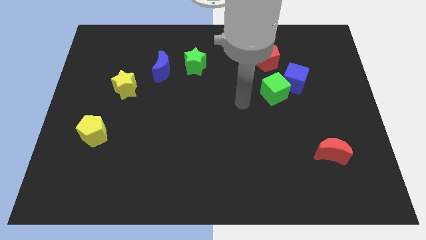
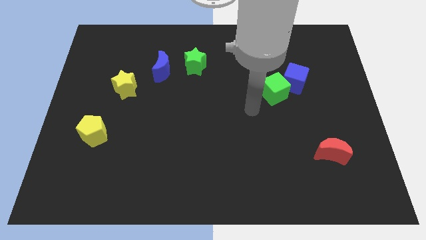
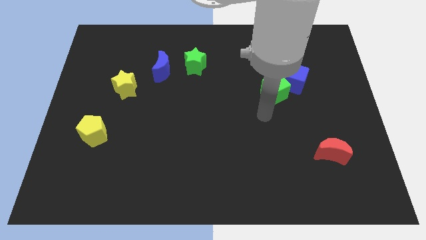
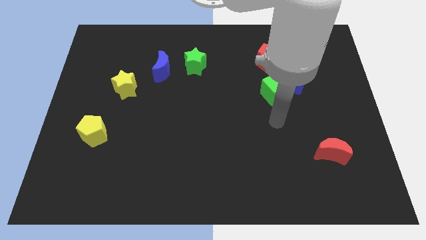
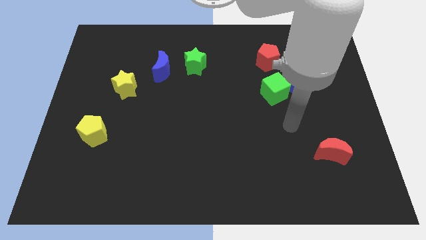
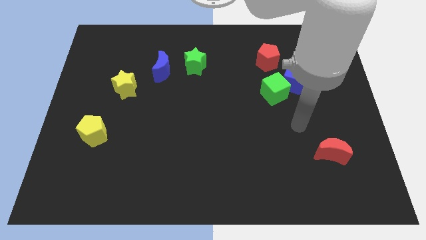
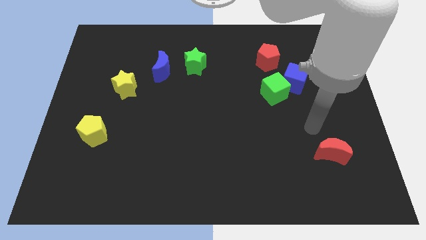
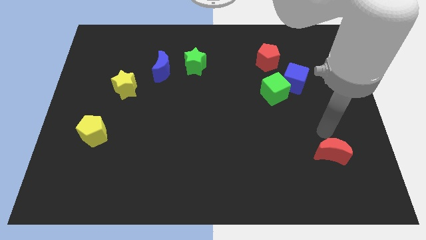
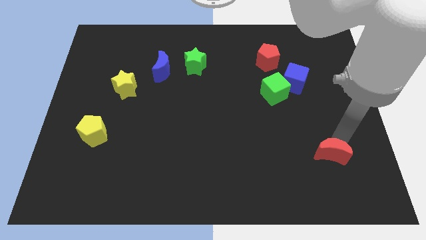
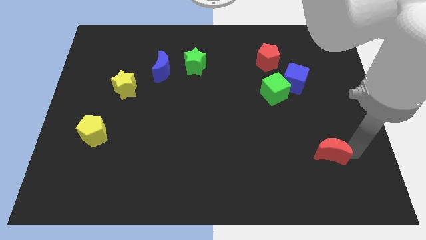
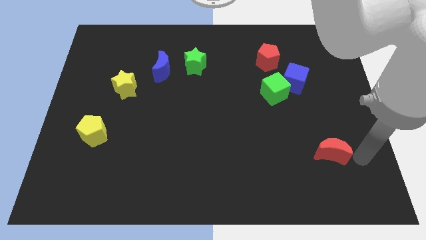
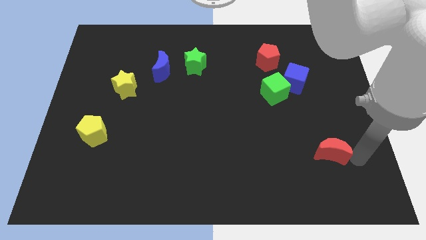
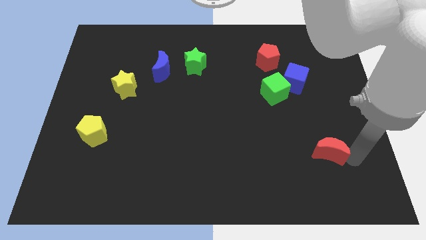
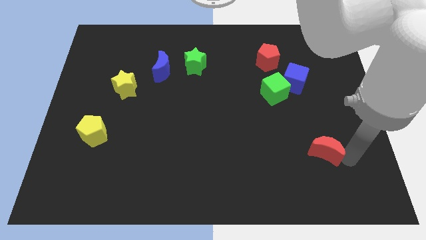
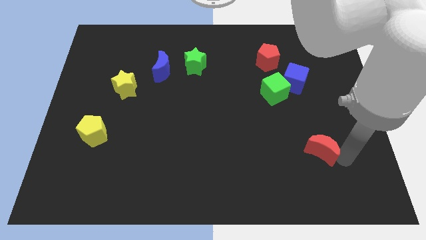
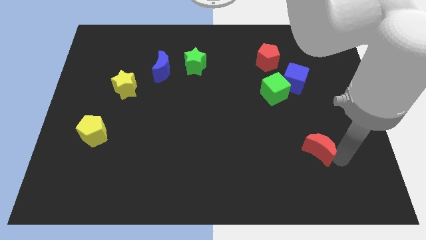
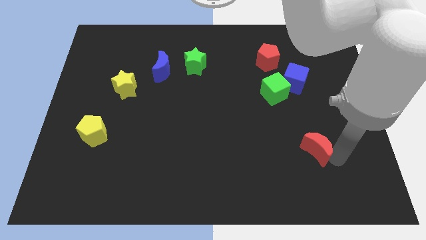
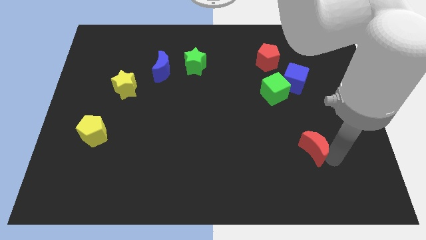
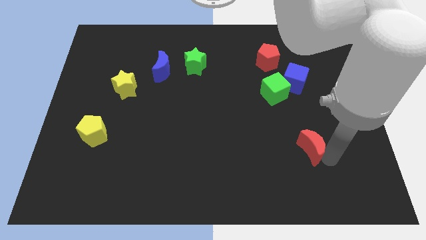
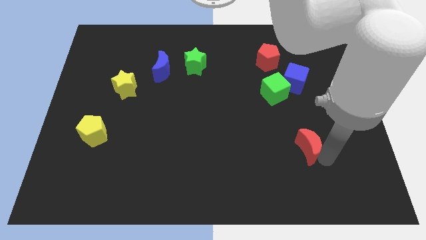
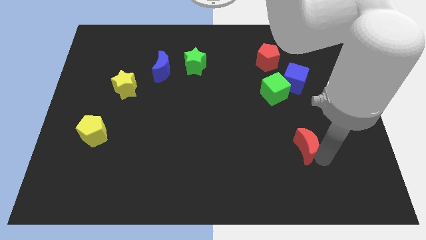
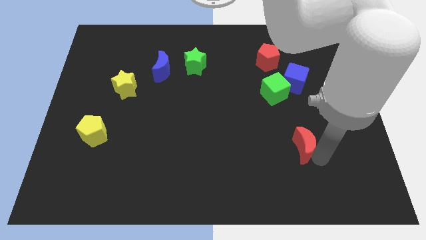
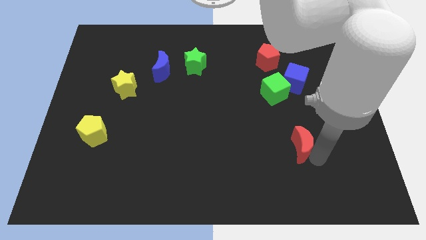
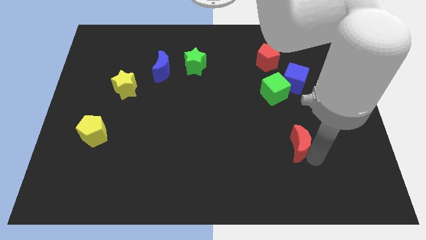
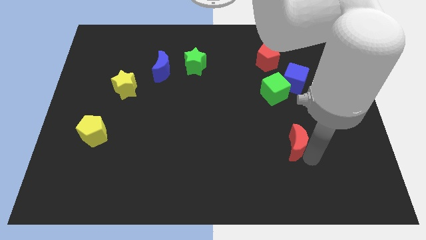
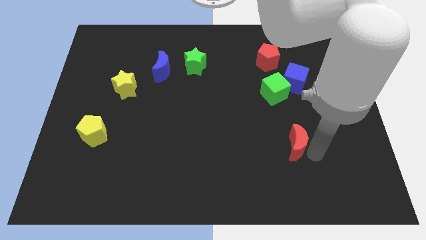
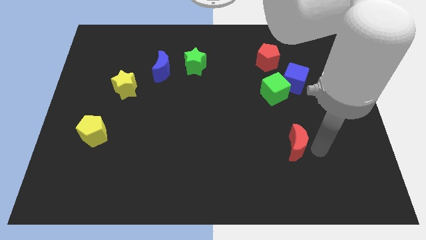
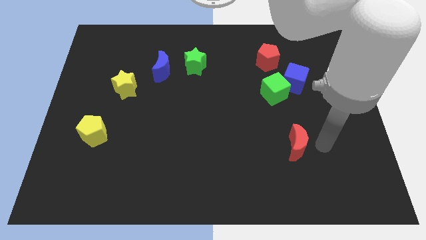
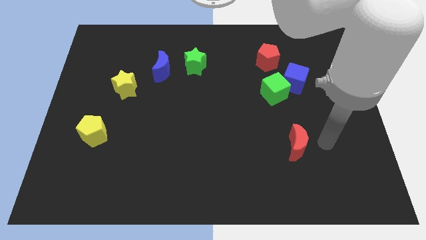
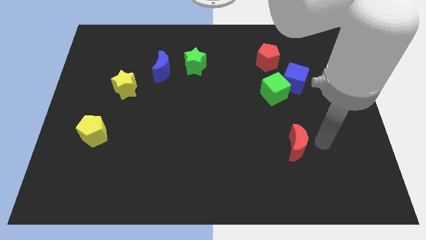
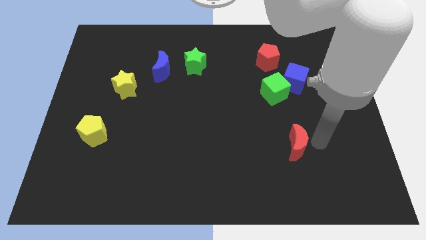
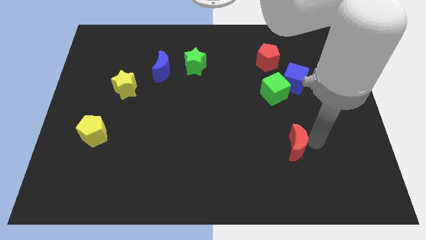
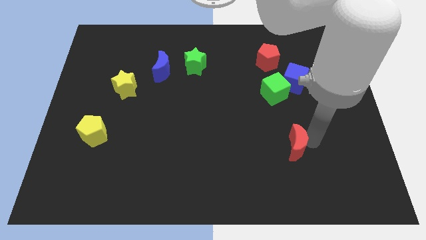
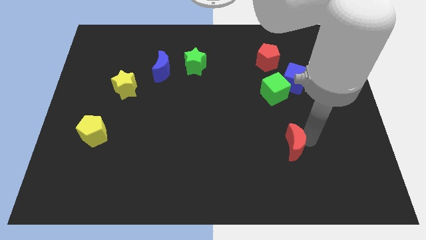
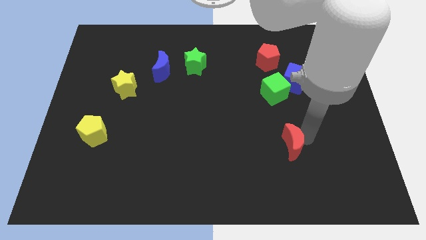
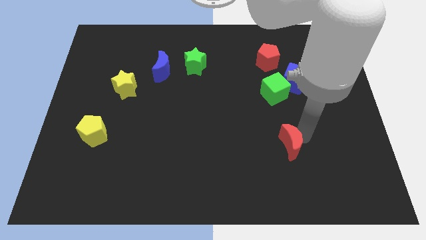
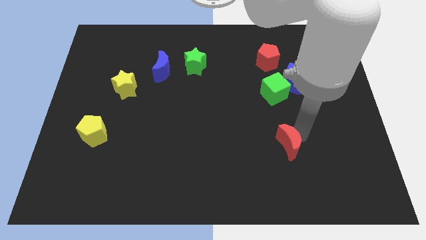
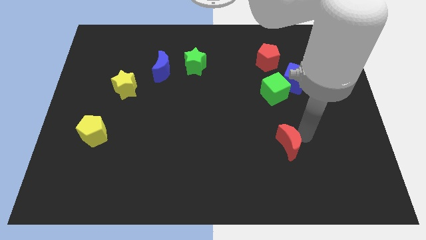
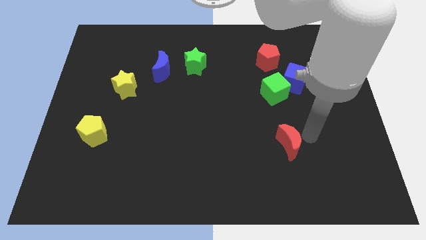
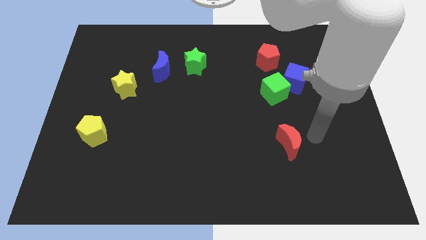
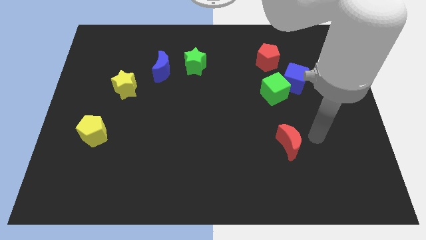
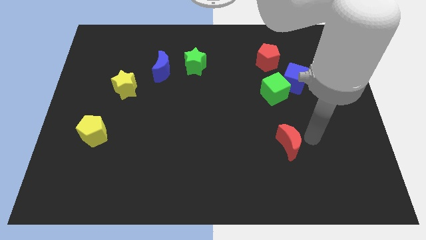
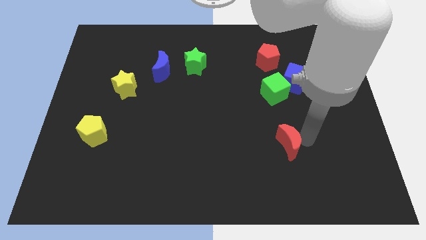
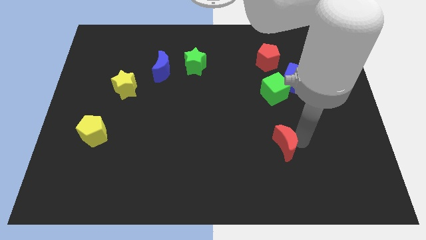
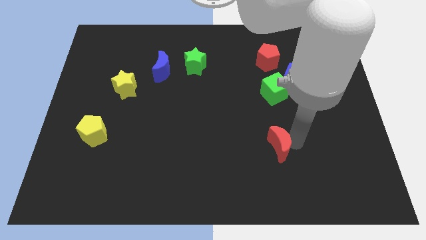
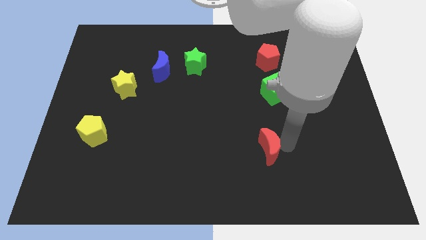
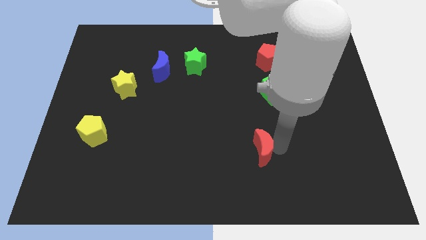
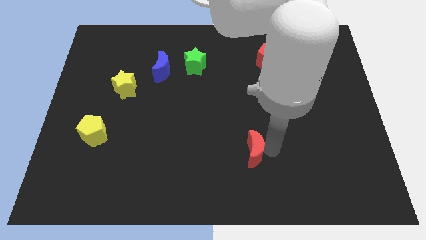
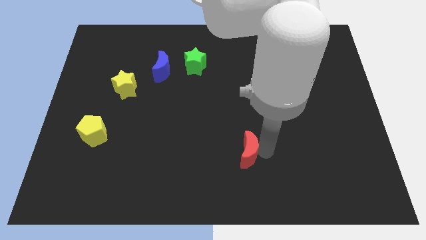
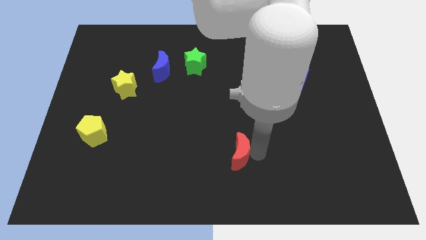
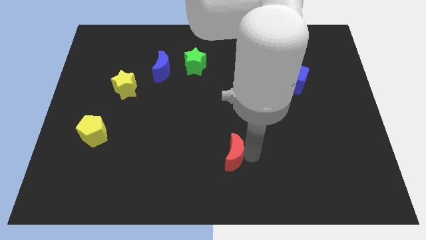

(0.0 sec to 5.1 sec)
slide the red moon left

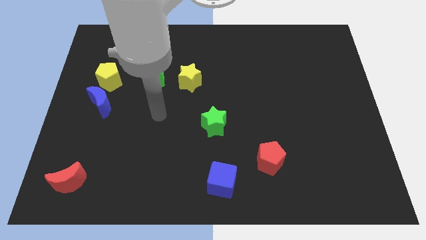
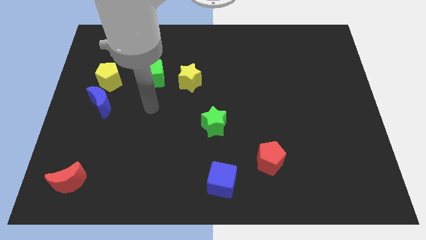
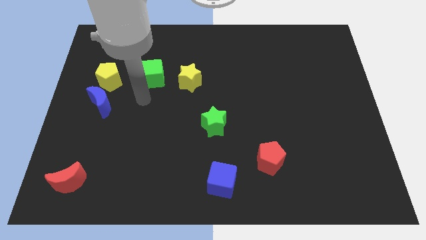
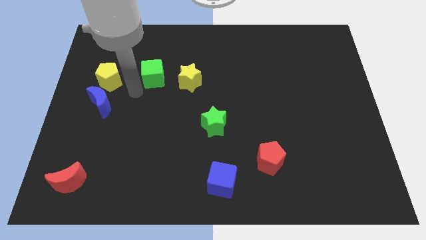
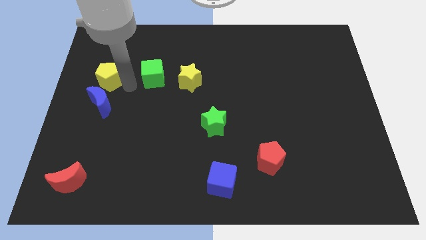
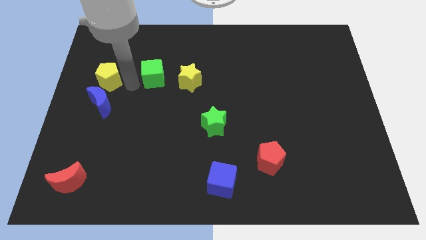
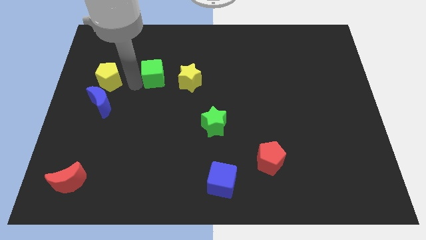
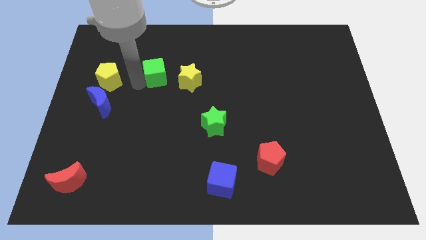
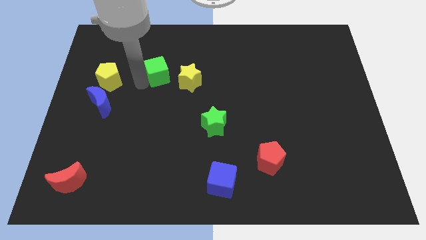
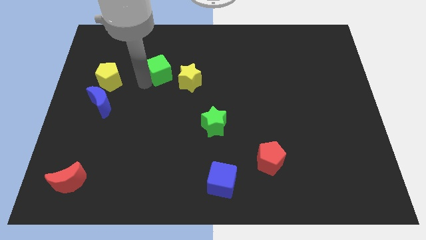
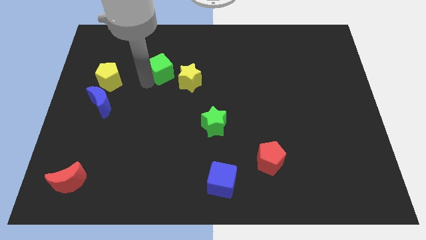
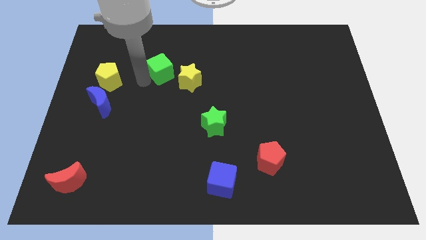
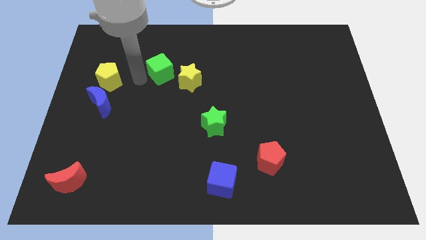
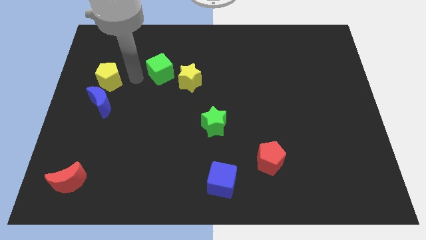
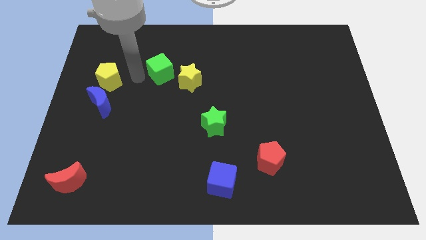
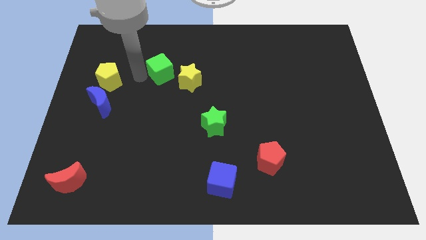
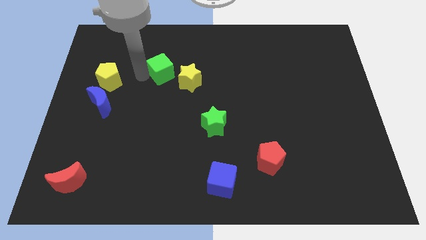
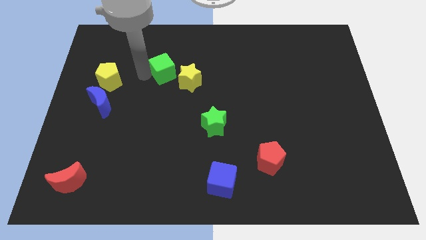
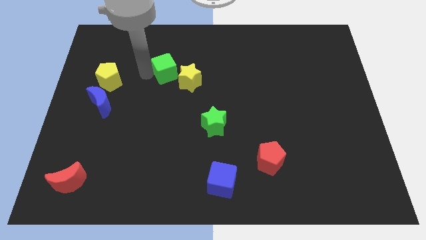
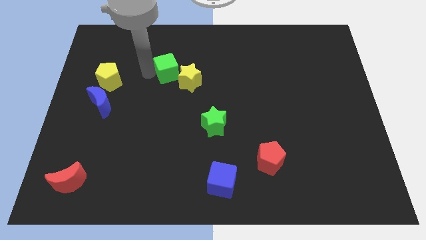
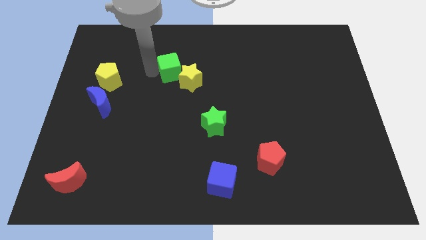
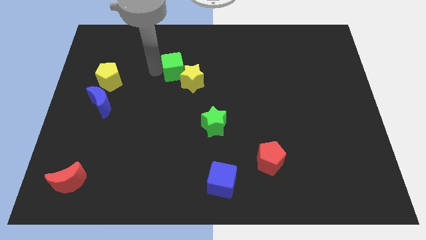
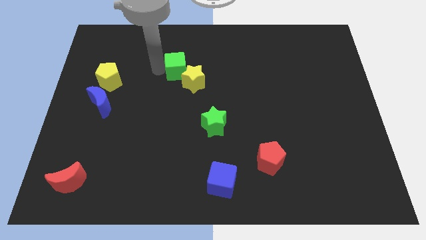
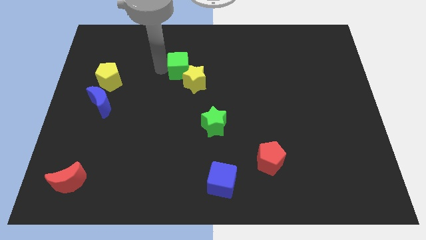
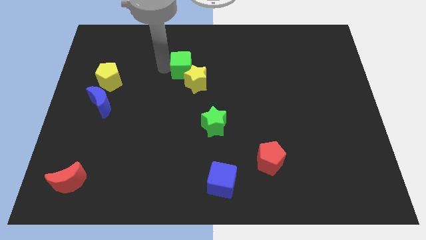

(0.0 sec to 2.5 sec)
push the green cube a little right

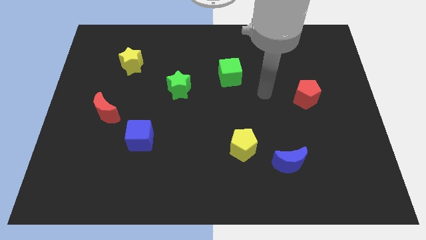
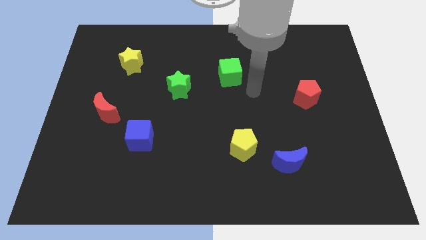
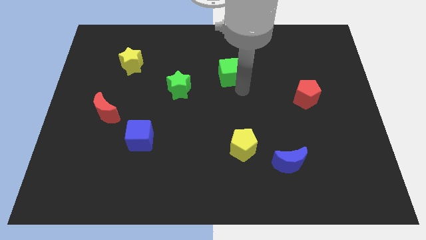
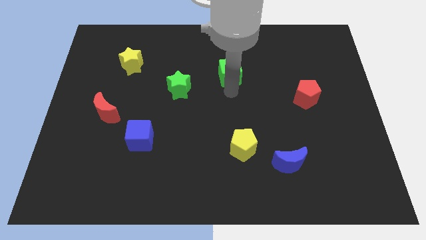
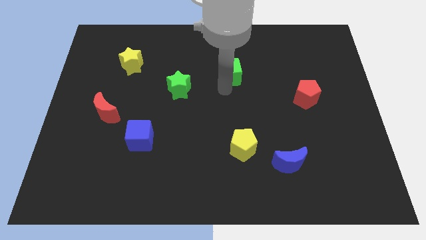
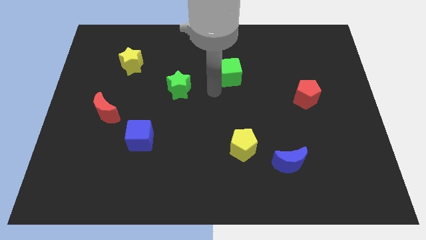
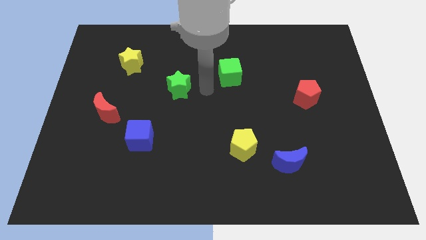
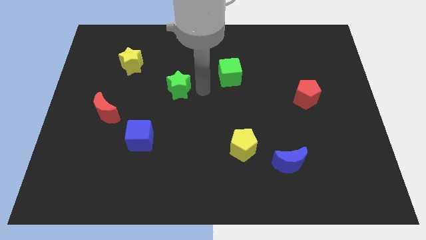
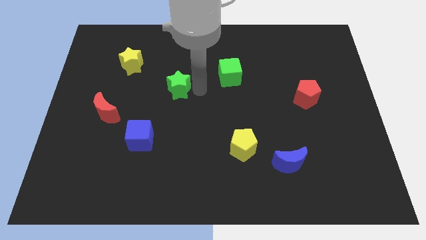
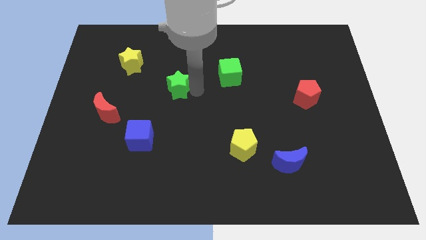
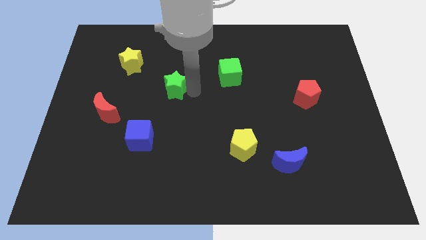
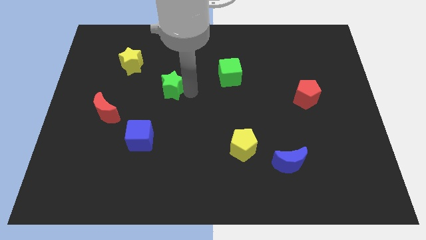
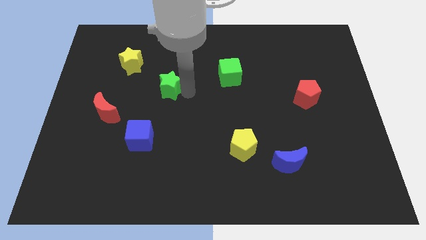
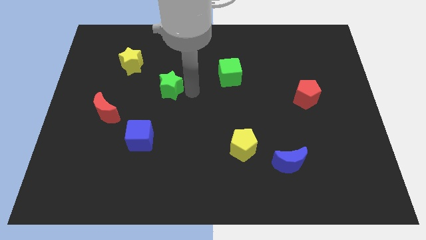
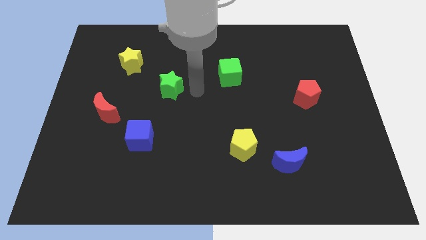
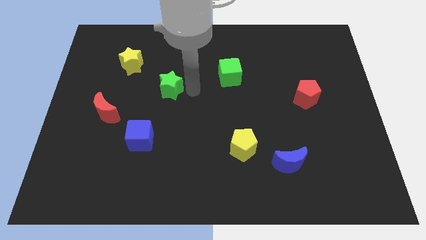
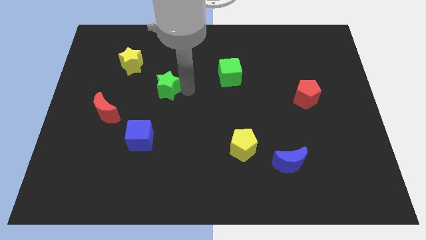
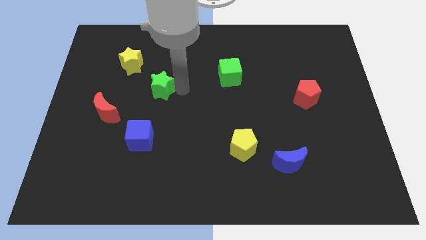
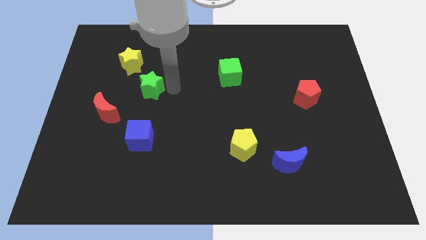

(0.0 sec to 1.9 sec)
move the green star a little bit left
